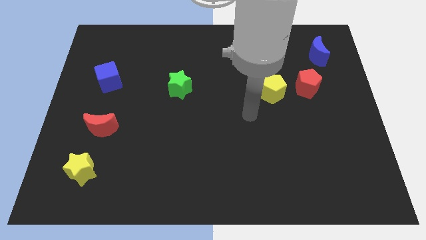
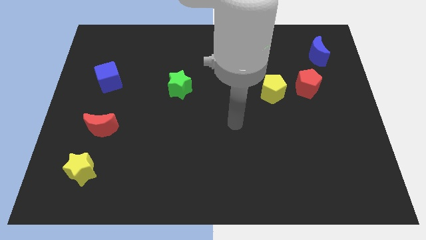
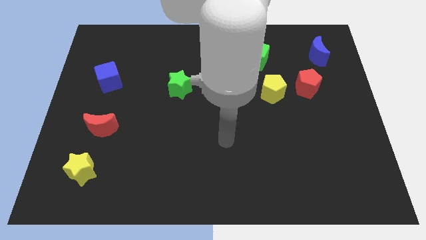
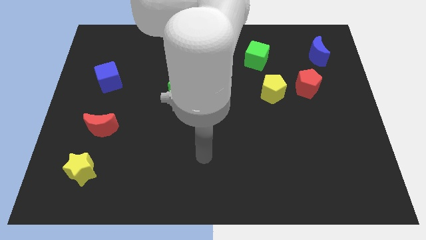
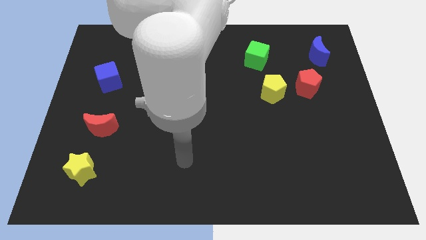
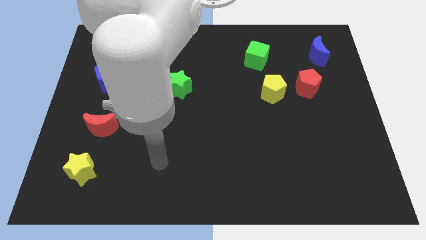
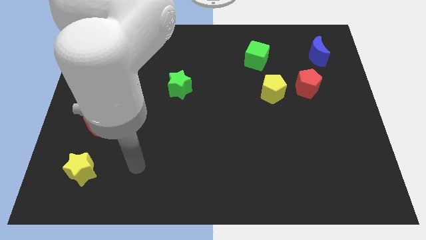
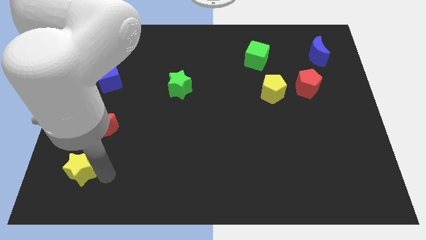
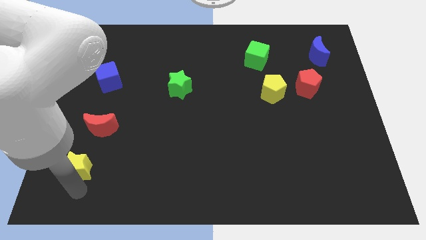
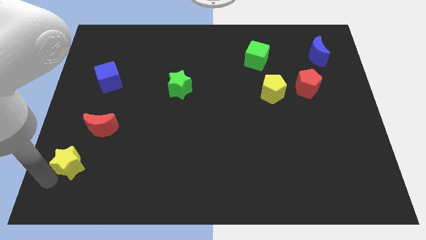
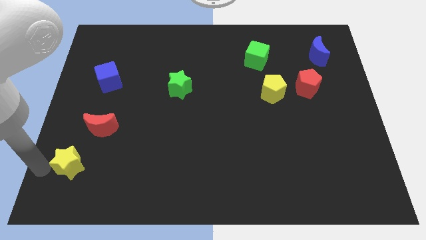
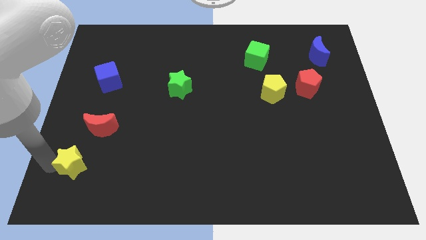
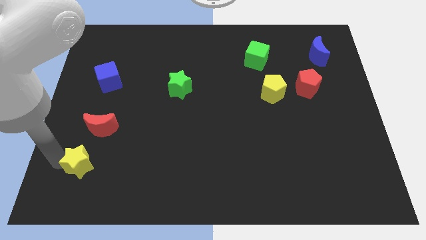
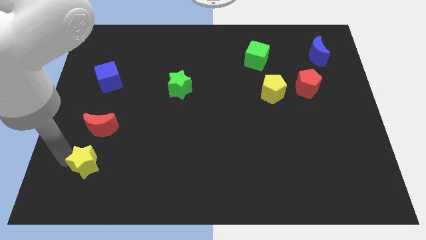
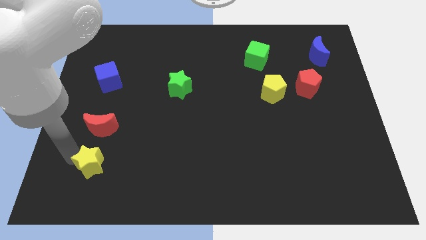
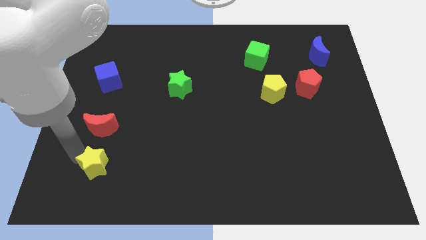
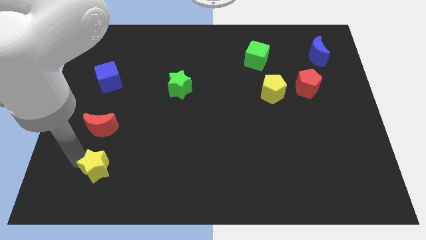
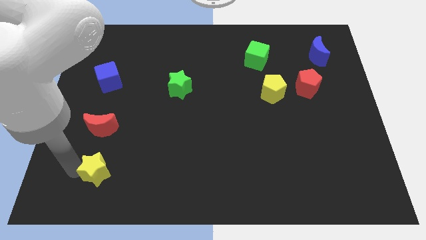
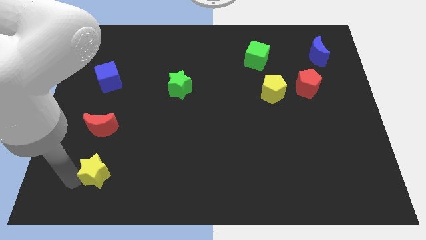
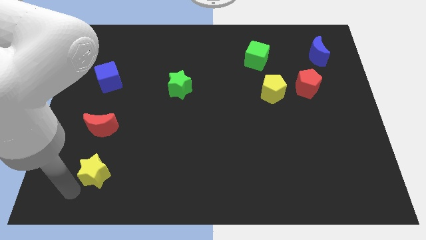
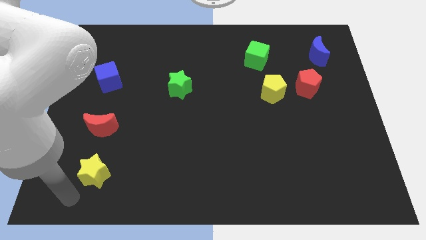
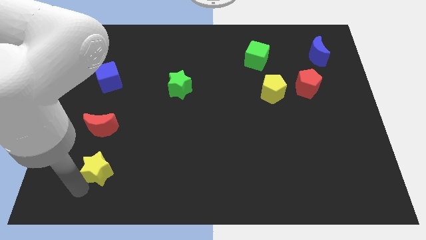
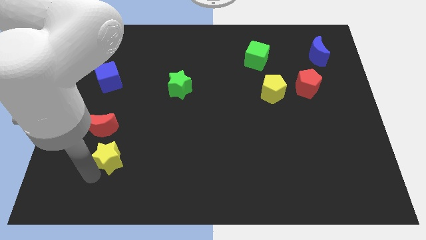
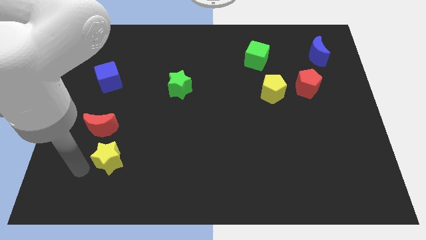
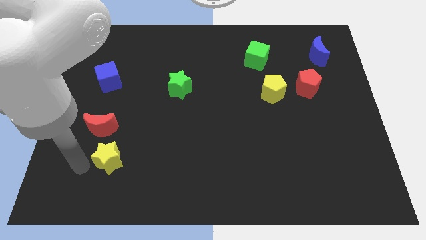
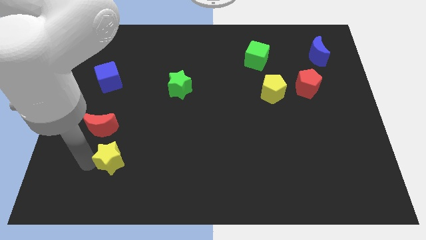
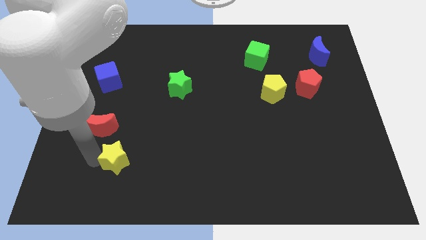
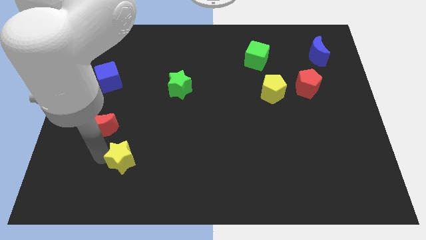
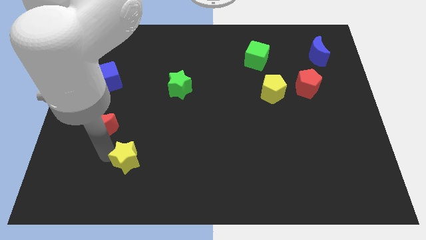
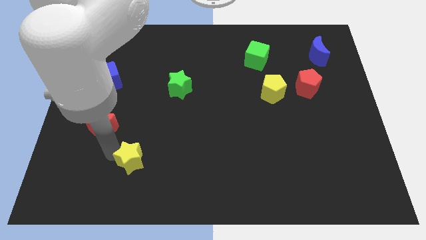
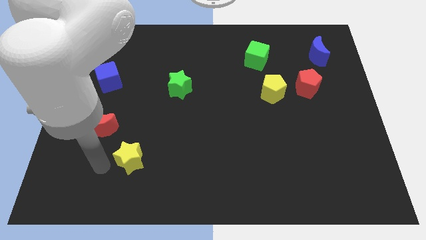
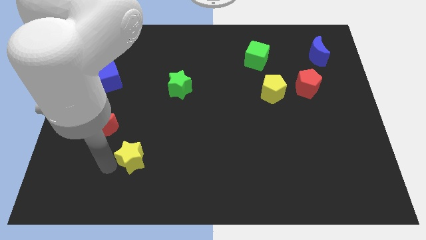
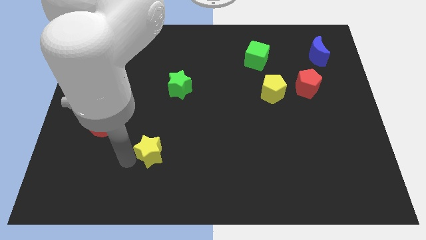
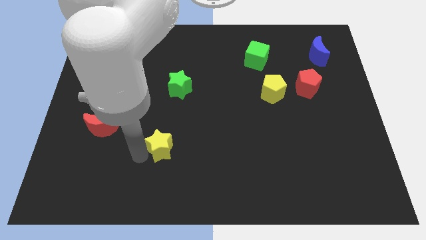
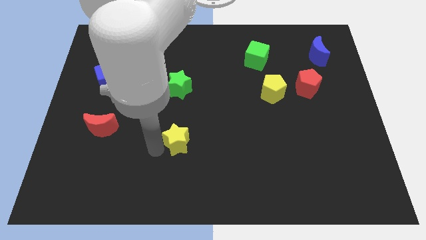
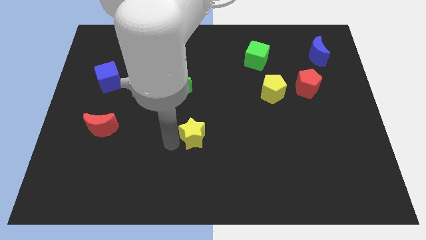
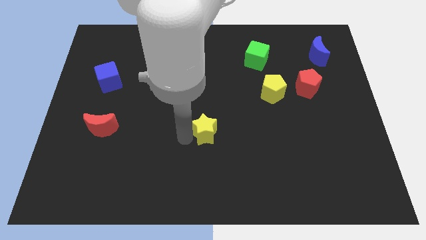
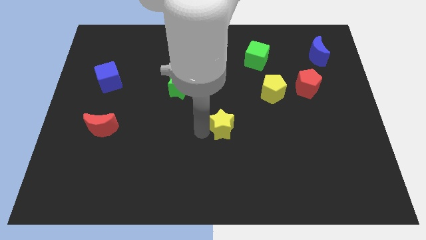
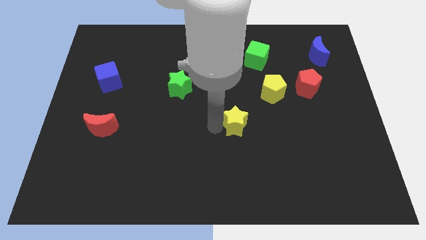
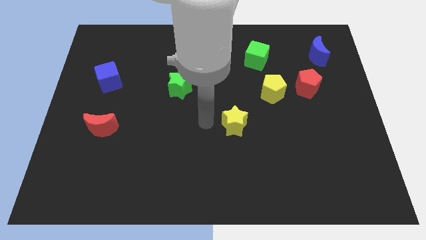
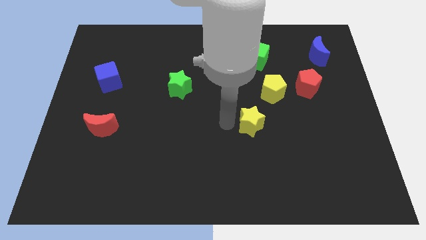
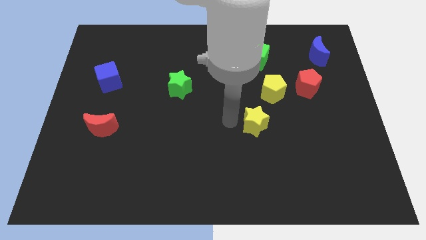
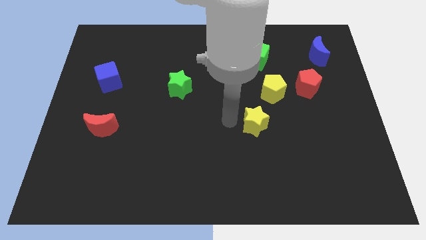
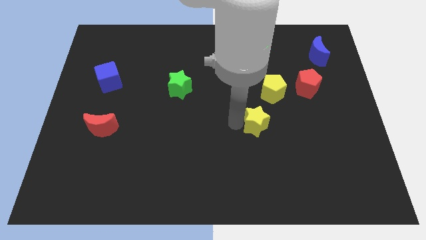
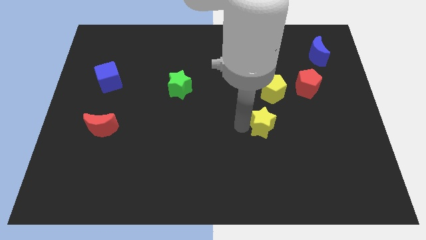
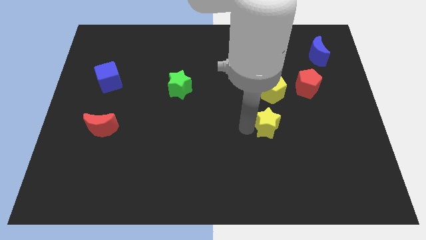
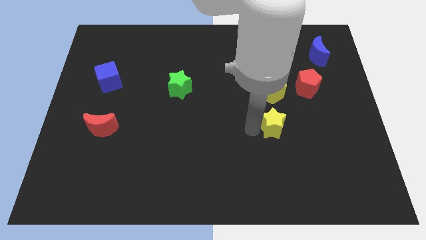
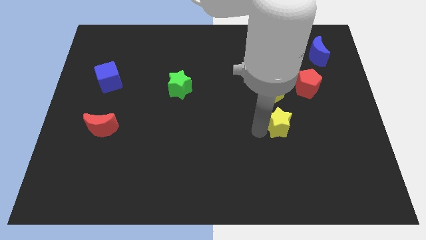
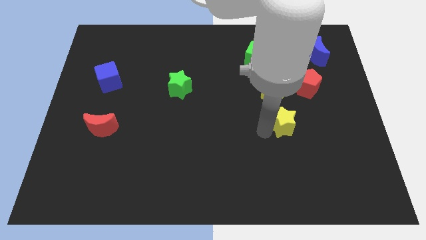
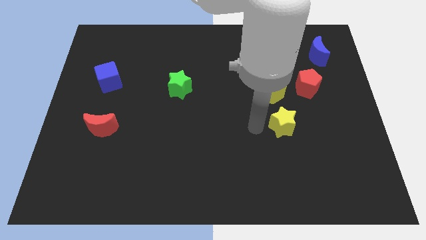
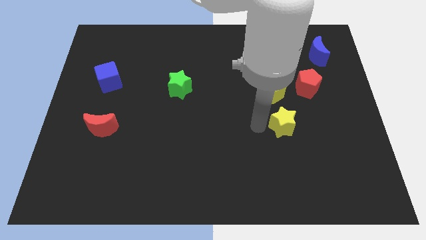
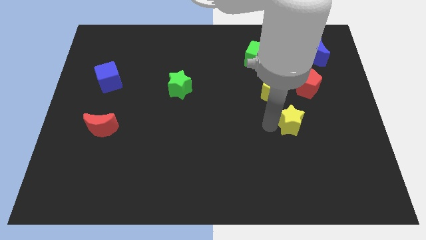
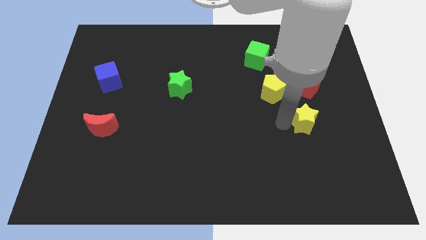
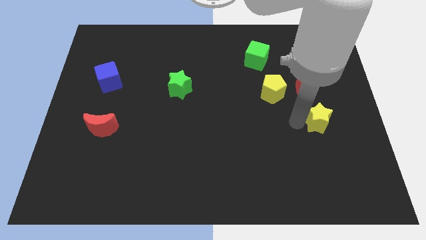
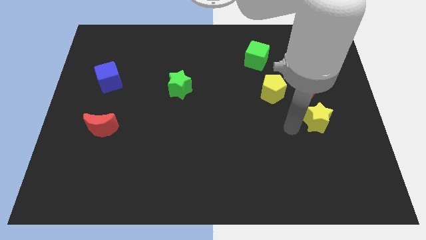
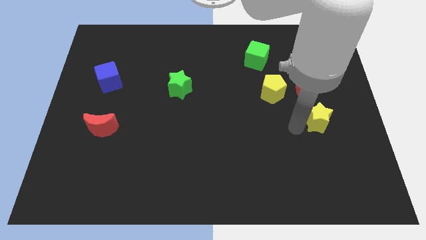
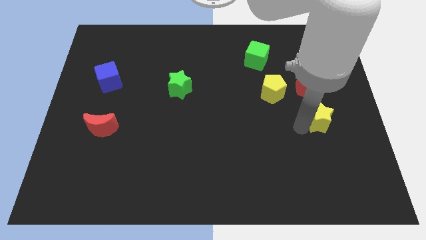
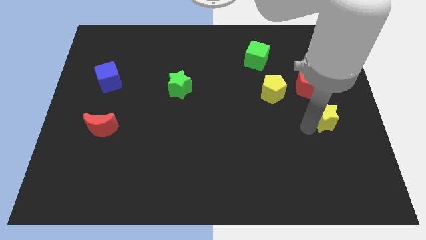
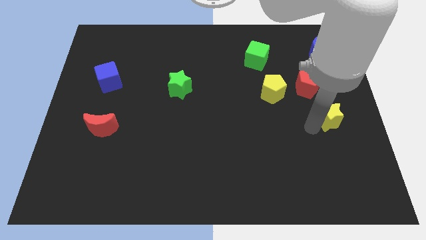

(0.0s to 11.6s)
slide the yellow star to the center right

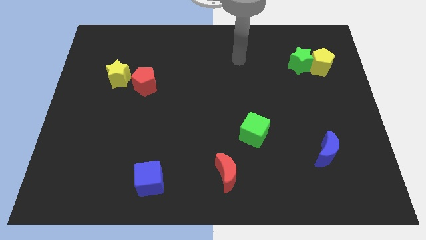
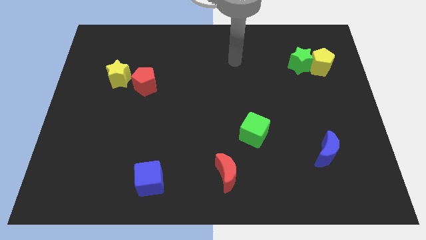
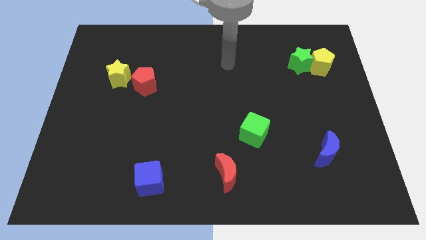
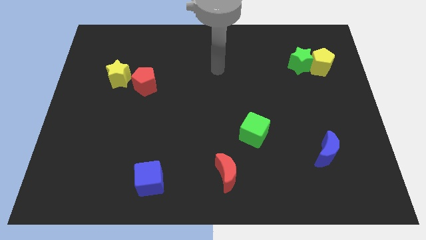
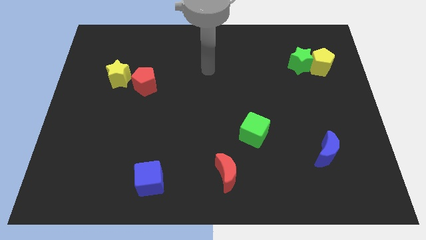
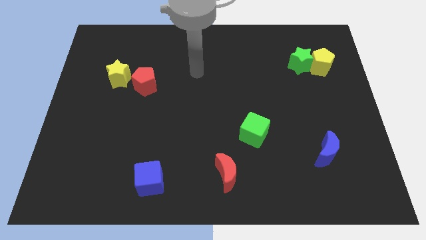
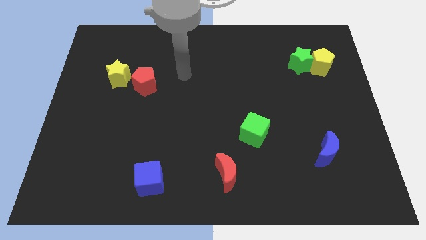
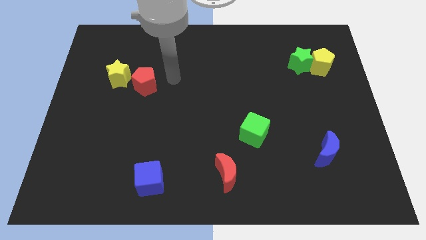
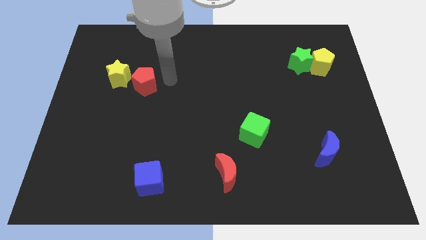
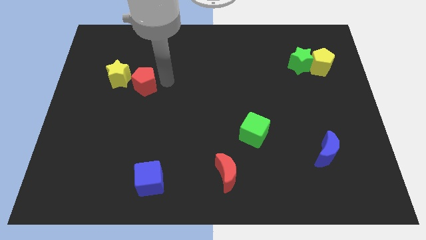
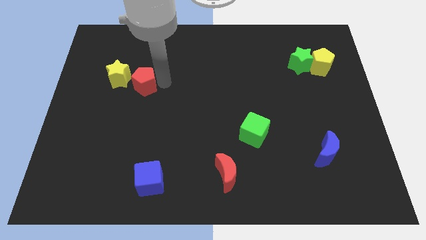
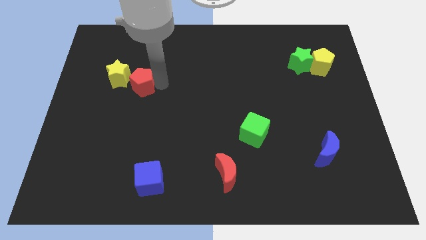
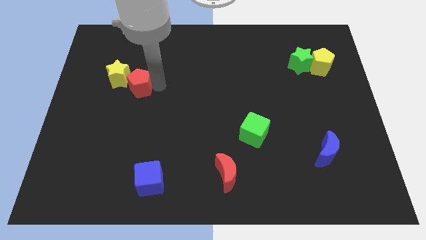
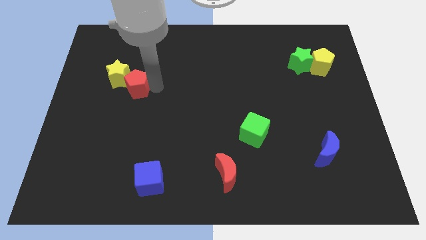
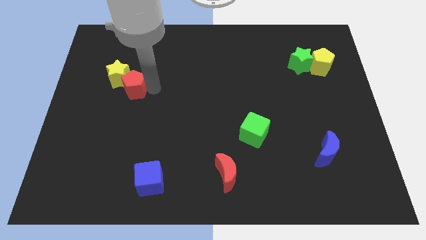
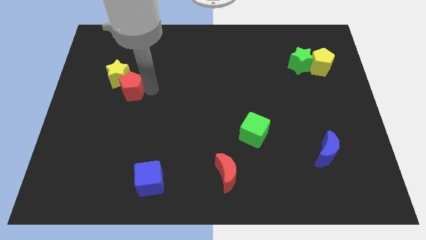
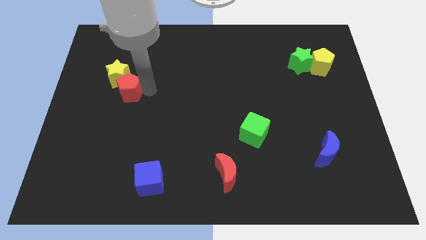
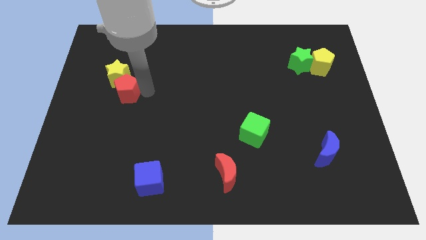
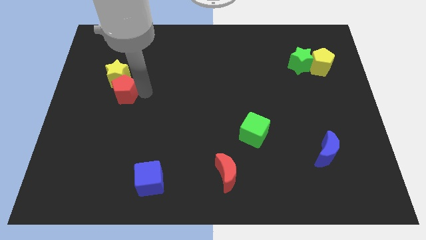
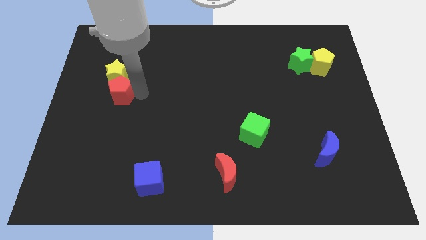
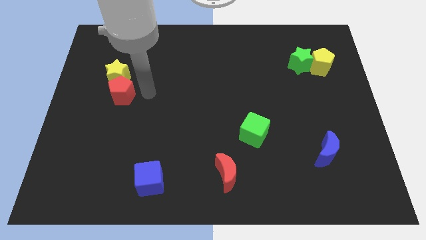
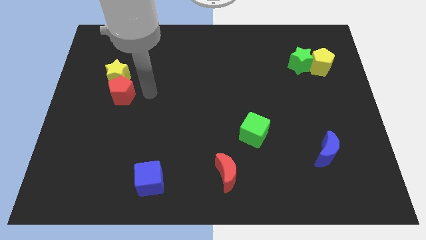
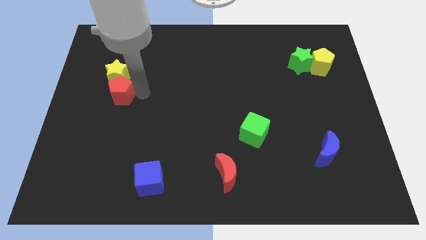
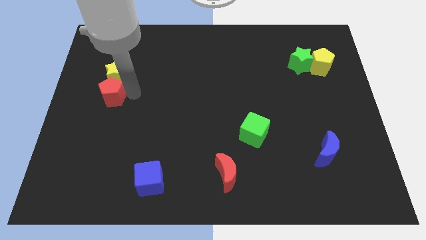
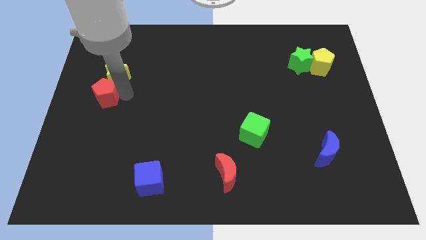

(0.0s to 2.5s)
push the red pentagon to the center left
